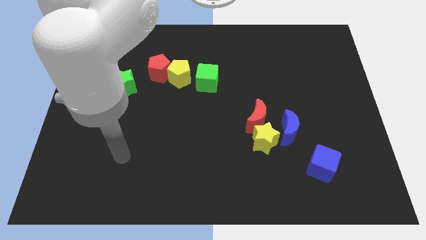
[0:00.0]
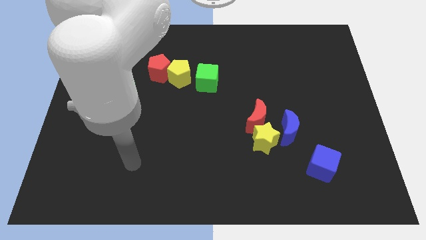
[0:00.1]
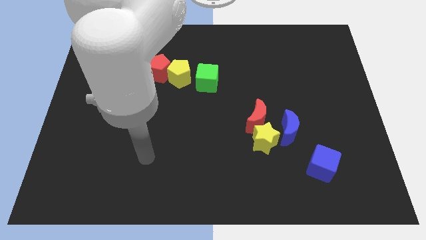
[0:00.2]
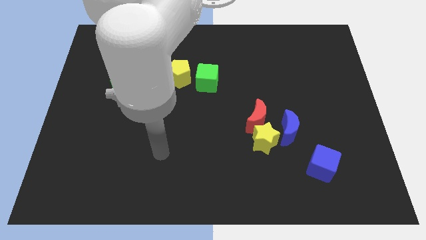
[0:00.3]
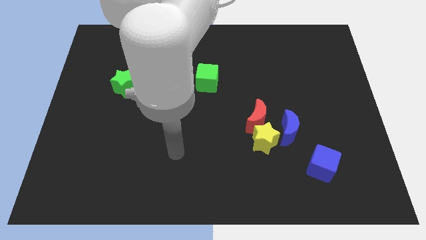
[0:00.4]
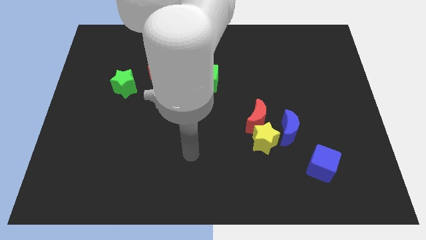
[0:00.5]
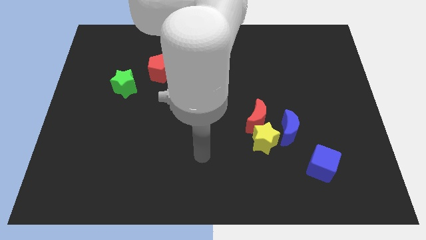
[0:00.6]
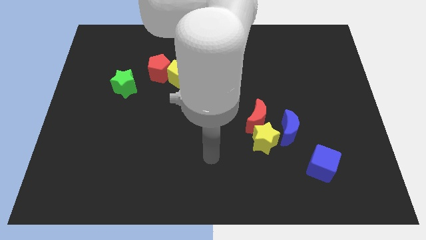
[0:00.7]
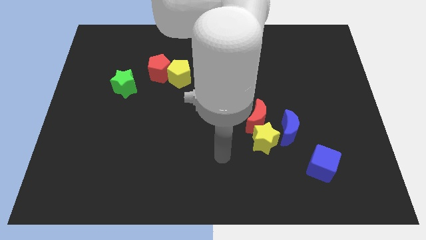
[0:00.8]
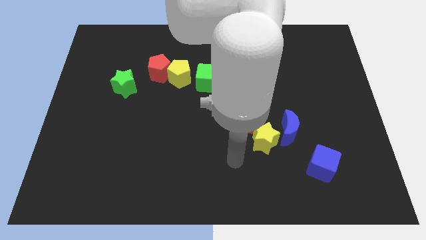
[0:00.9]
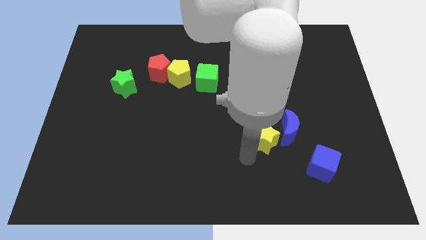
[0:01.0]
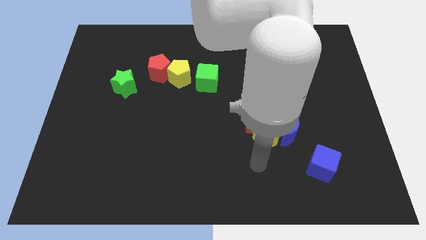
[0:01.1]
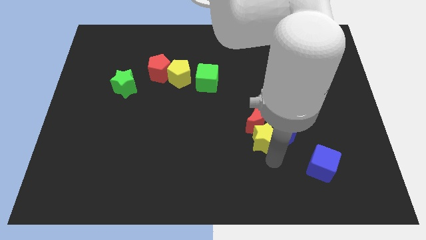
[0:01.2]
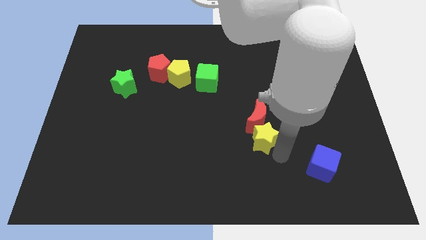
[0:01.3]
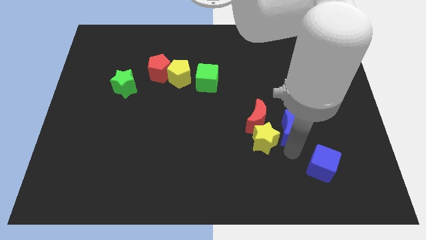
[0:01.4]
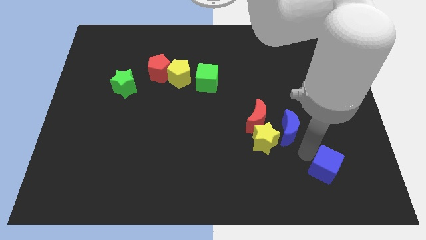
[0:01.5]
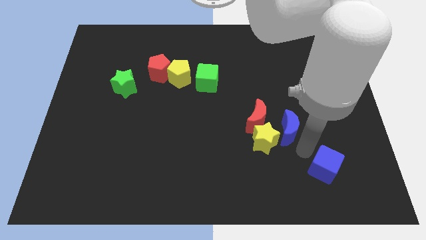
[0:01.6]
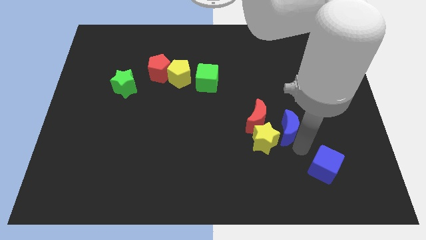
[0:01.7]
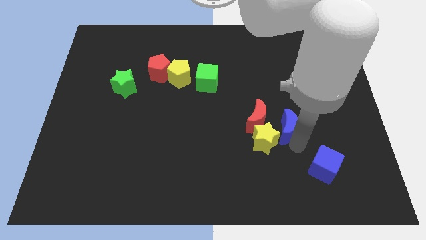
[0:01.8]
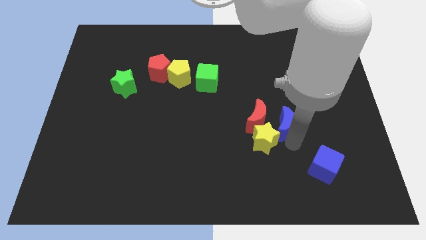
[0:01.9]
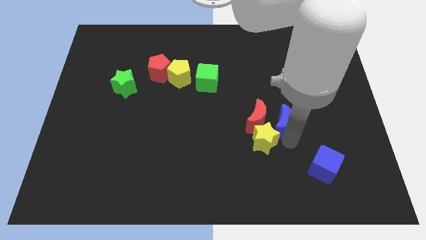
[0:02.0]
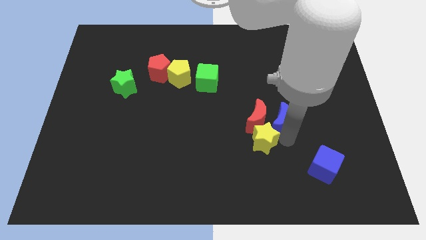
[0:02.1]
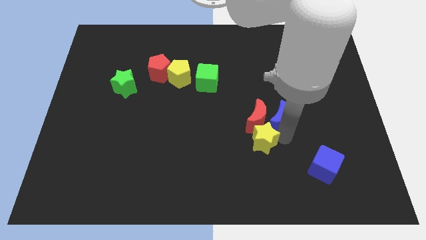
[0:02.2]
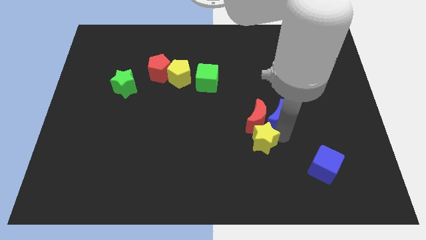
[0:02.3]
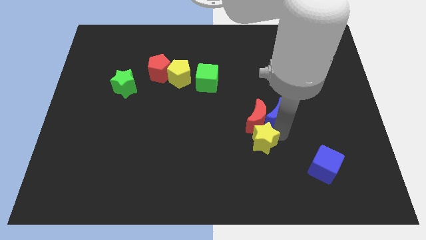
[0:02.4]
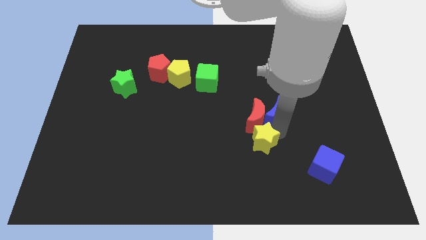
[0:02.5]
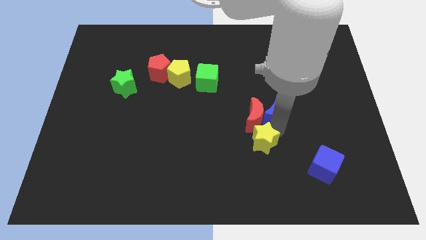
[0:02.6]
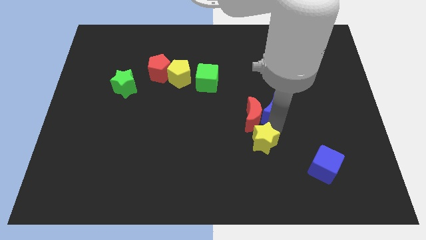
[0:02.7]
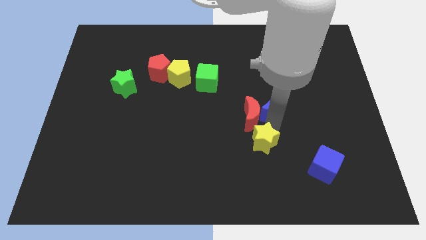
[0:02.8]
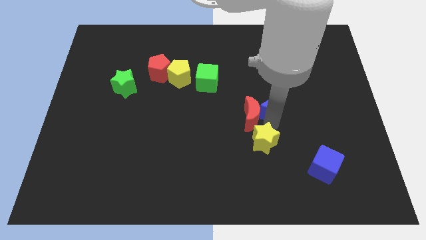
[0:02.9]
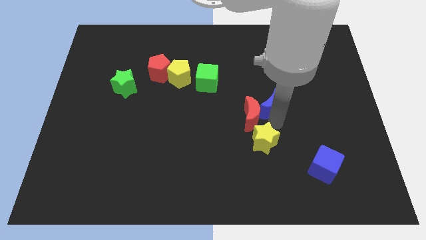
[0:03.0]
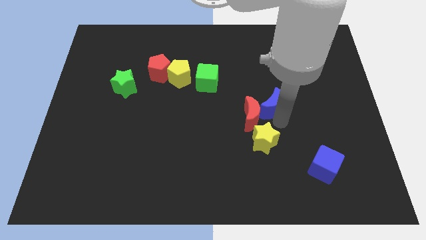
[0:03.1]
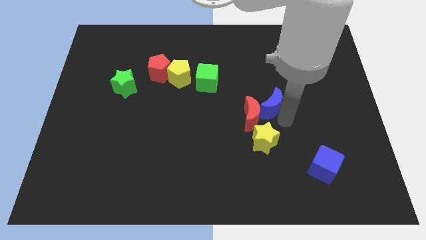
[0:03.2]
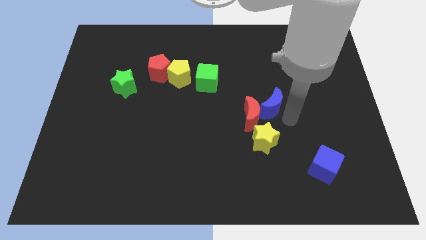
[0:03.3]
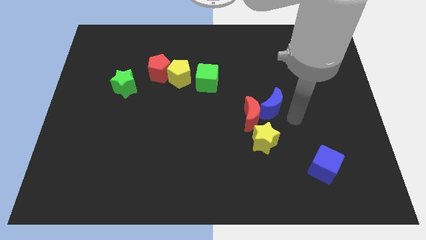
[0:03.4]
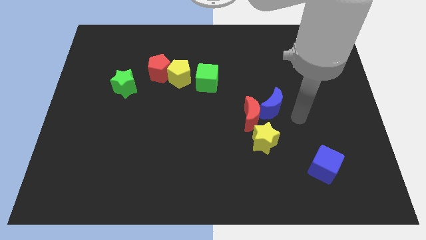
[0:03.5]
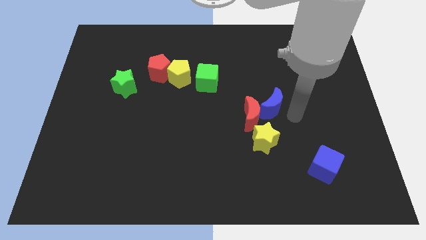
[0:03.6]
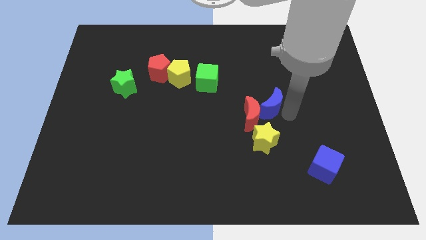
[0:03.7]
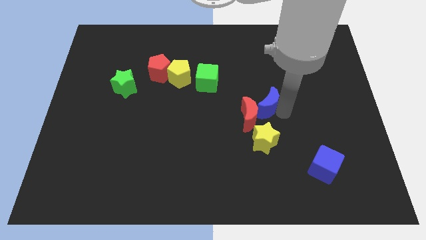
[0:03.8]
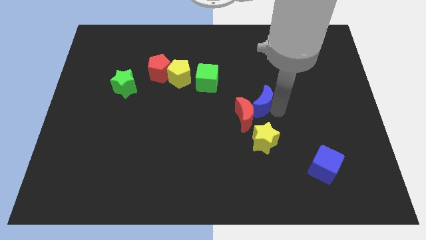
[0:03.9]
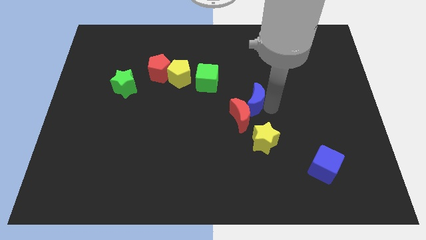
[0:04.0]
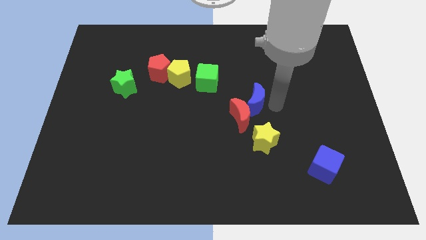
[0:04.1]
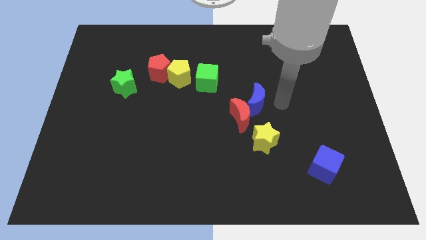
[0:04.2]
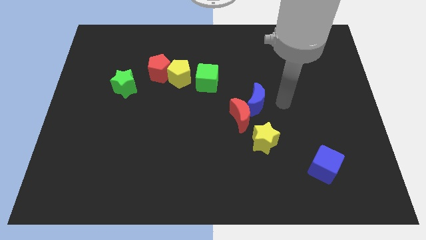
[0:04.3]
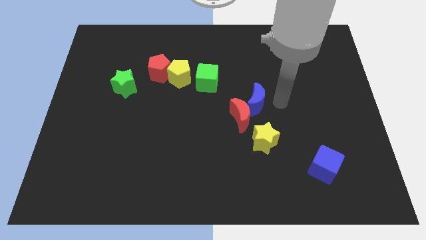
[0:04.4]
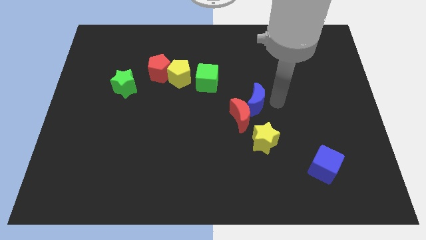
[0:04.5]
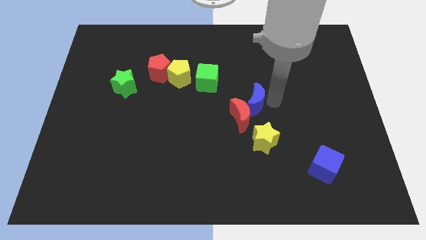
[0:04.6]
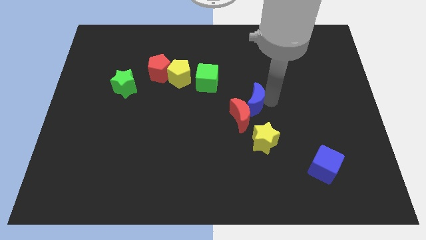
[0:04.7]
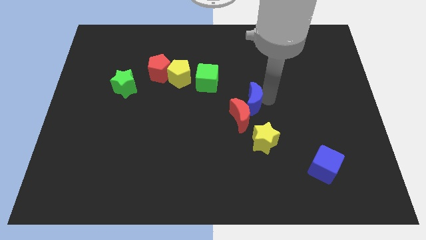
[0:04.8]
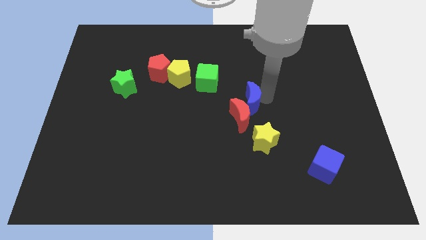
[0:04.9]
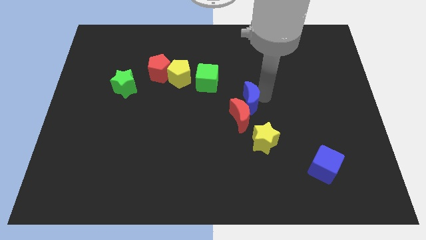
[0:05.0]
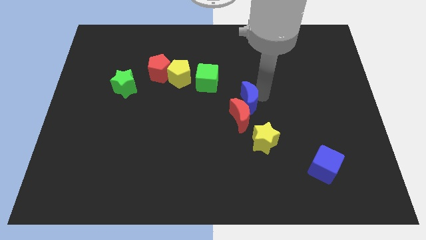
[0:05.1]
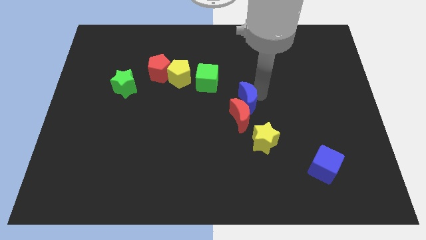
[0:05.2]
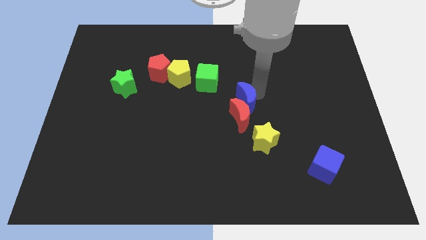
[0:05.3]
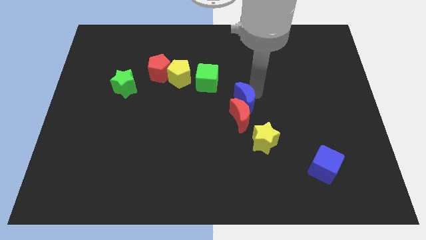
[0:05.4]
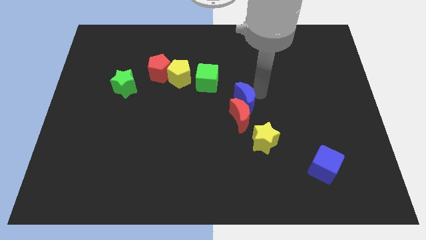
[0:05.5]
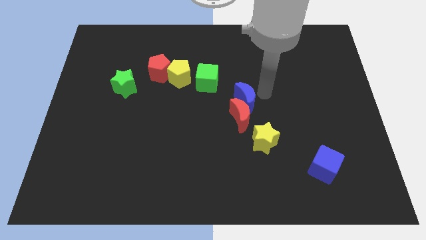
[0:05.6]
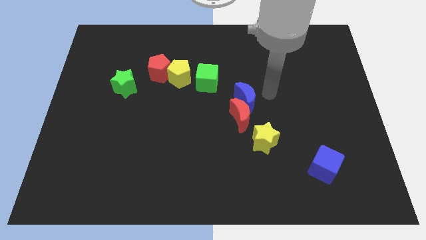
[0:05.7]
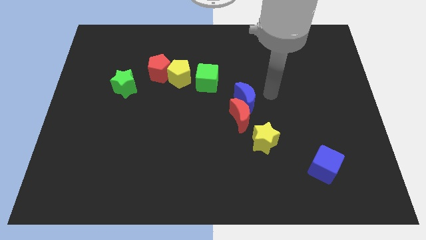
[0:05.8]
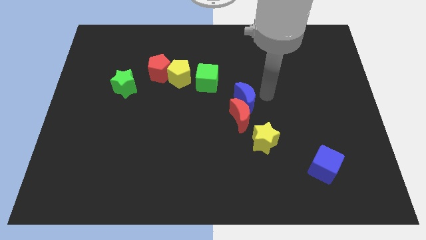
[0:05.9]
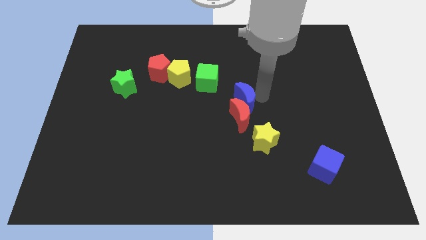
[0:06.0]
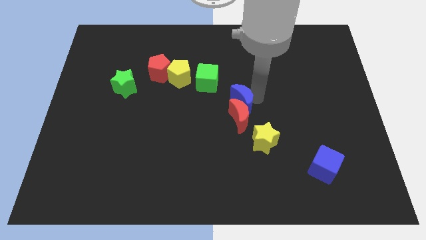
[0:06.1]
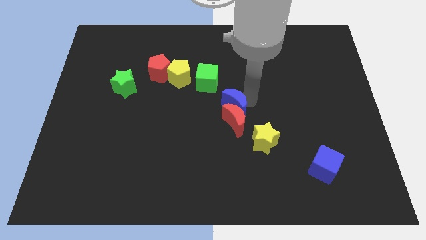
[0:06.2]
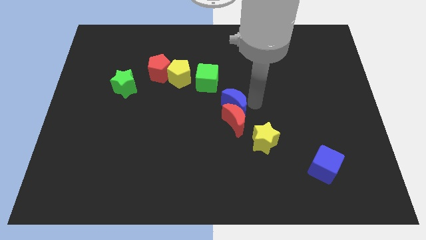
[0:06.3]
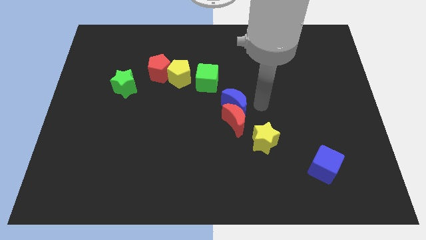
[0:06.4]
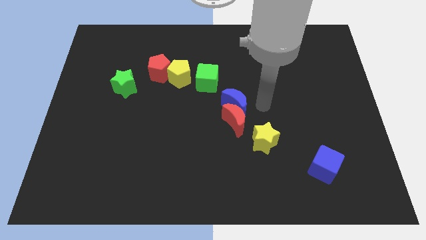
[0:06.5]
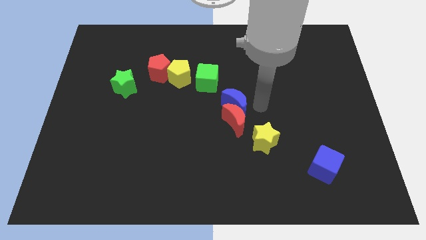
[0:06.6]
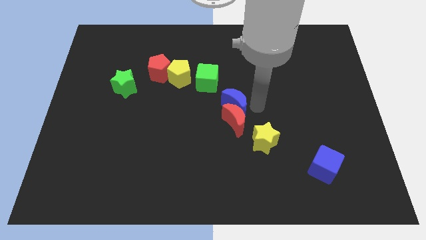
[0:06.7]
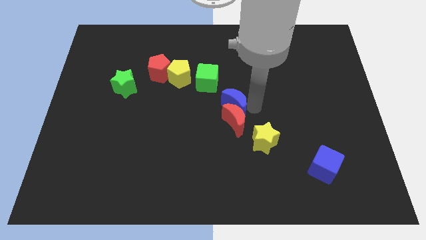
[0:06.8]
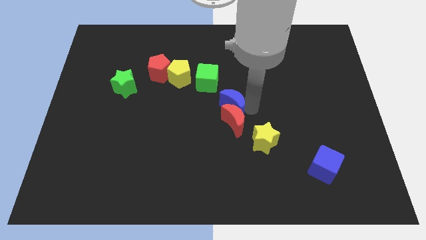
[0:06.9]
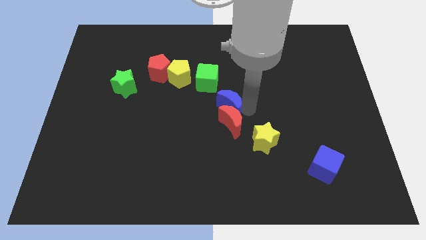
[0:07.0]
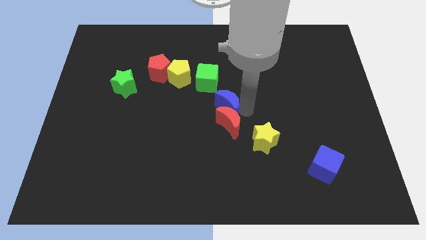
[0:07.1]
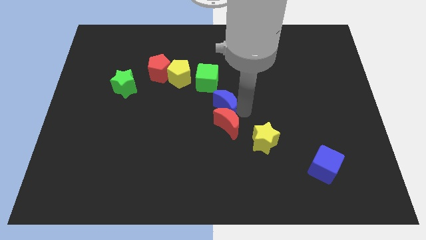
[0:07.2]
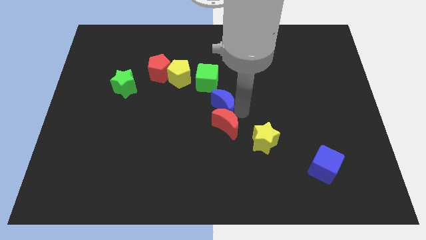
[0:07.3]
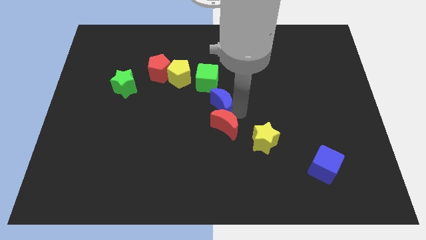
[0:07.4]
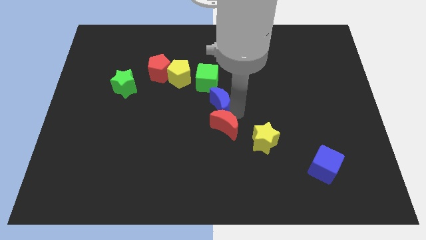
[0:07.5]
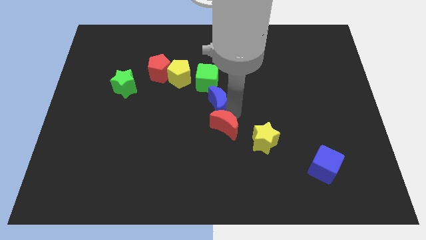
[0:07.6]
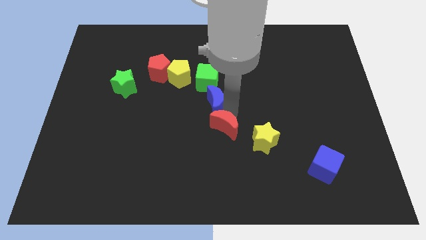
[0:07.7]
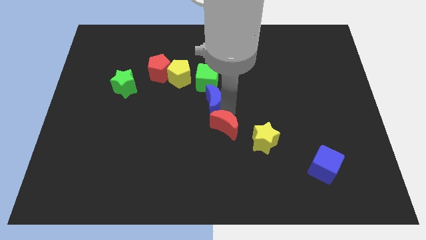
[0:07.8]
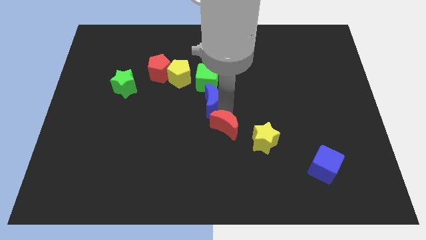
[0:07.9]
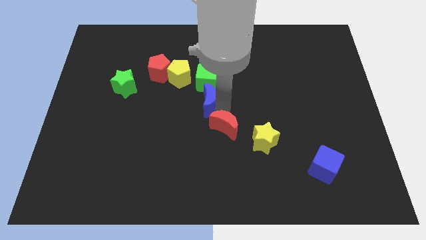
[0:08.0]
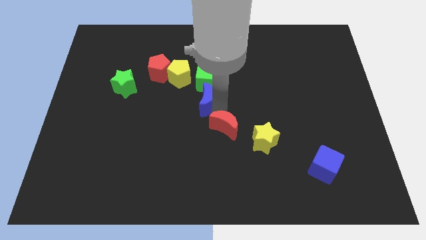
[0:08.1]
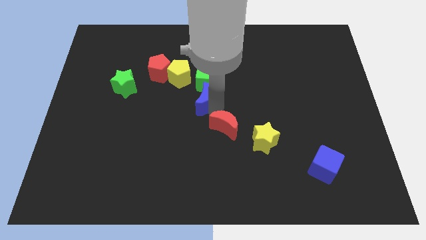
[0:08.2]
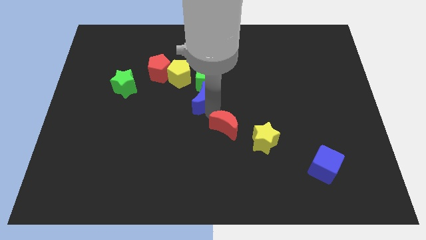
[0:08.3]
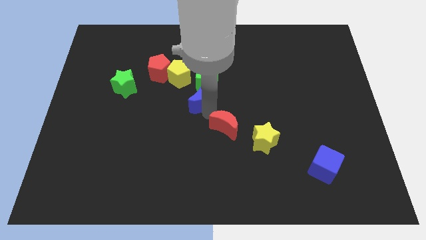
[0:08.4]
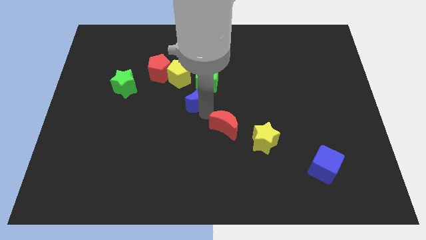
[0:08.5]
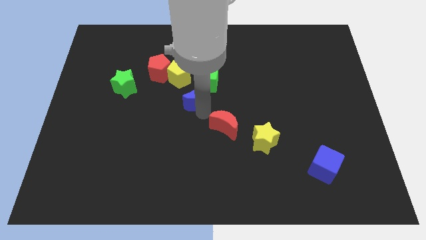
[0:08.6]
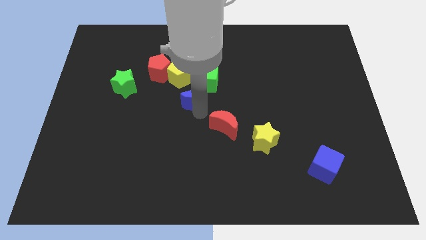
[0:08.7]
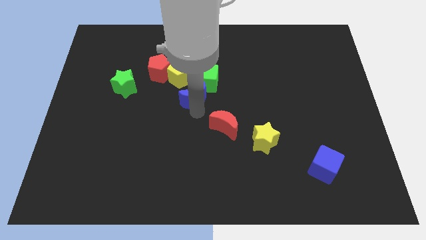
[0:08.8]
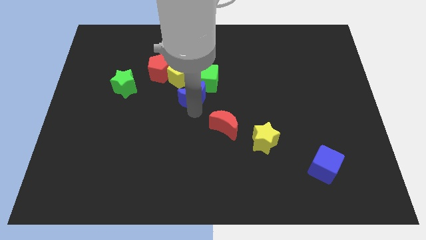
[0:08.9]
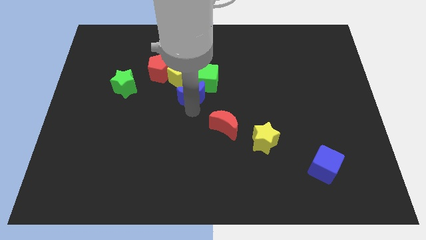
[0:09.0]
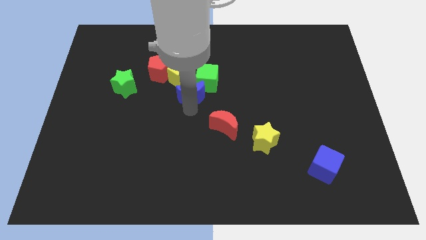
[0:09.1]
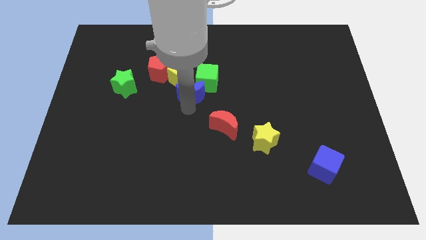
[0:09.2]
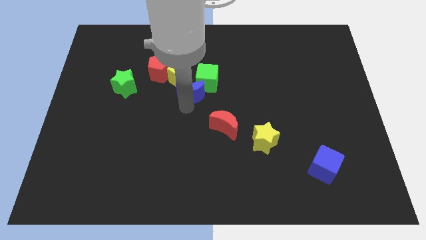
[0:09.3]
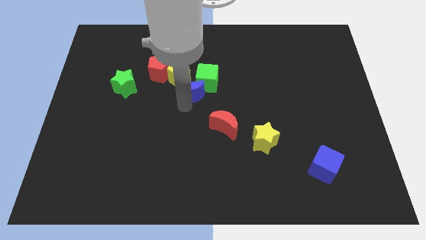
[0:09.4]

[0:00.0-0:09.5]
slide the blue moon towards the yellow pentagon
